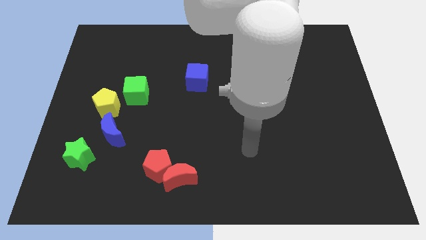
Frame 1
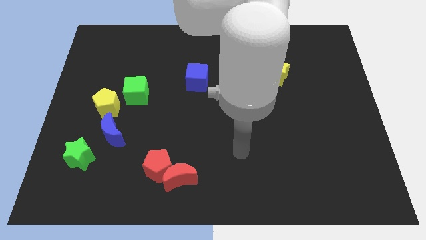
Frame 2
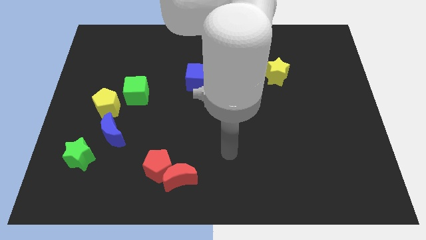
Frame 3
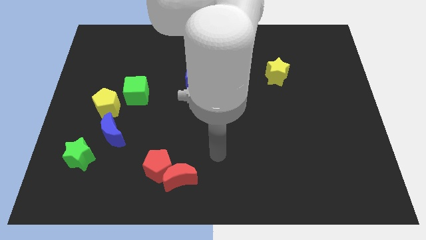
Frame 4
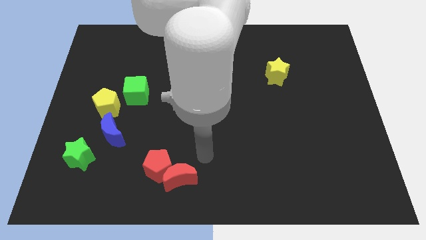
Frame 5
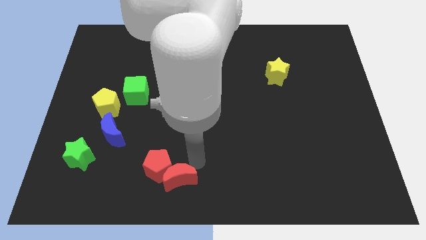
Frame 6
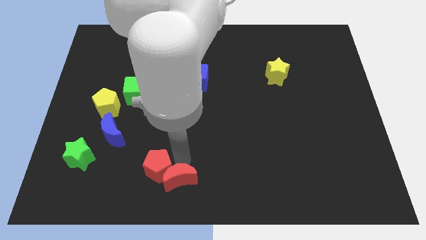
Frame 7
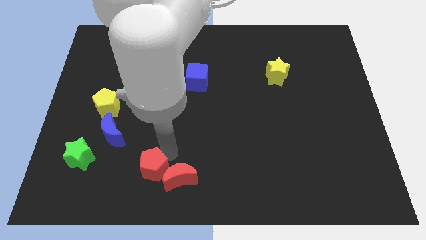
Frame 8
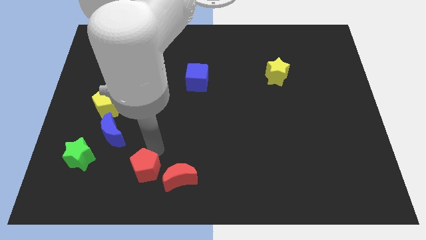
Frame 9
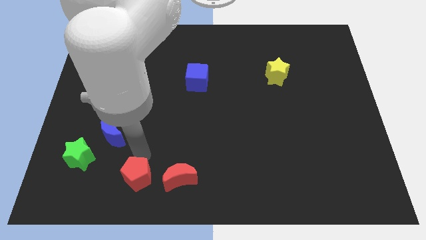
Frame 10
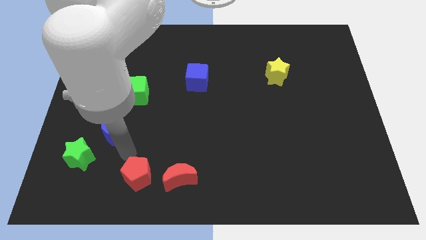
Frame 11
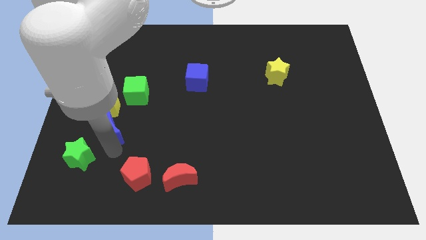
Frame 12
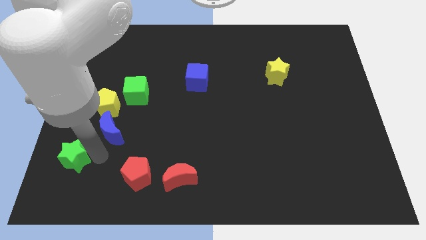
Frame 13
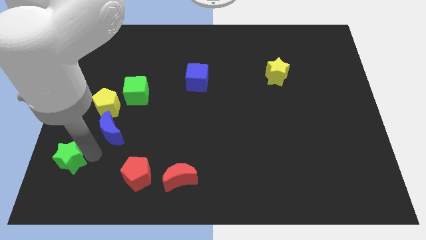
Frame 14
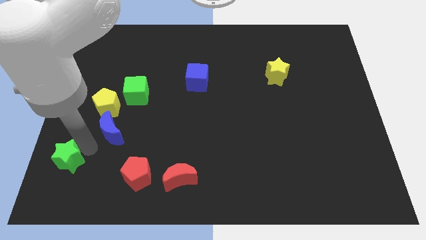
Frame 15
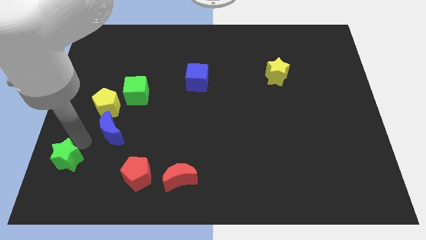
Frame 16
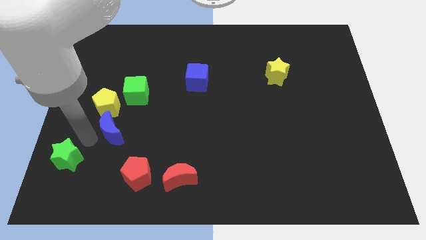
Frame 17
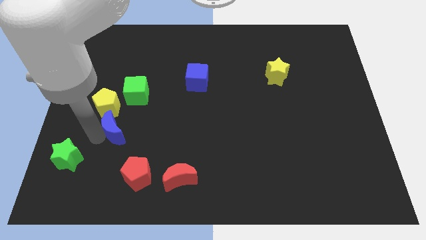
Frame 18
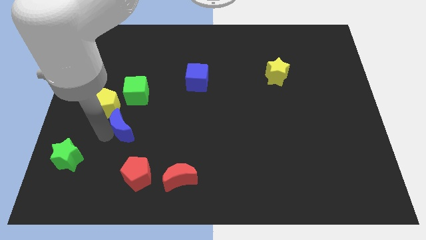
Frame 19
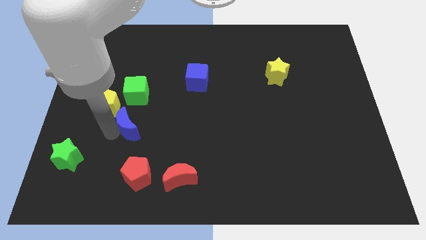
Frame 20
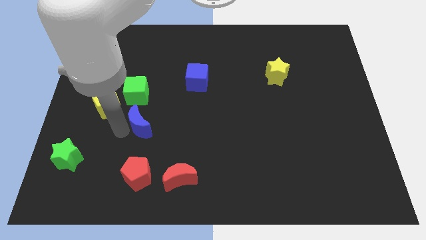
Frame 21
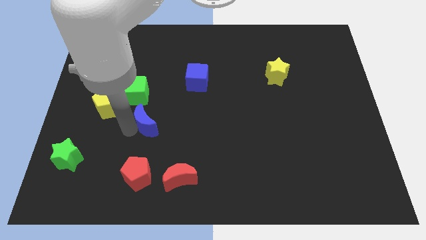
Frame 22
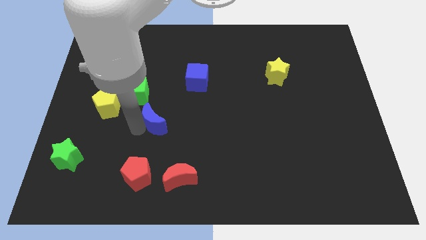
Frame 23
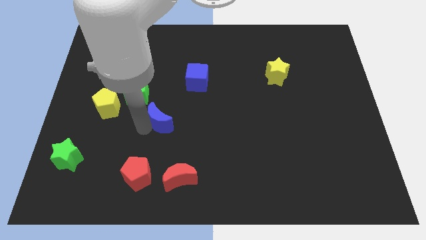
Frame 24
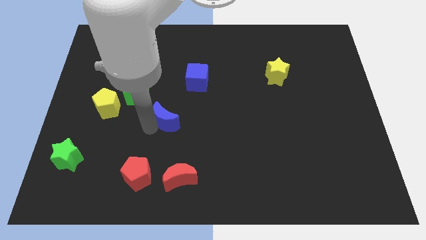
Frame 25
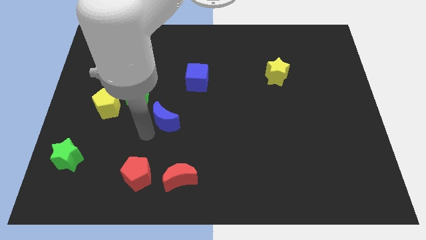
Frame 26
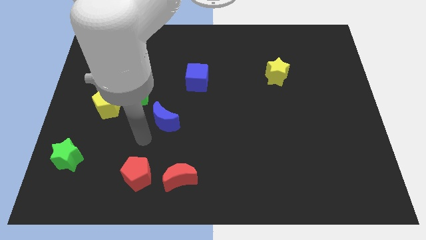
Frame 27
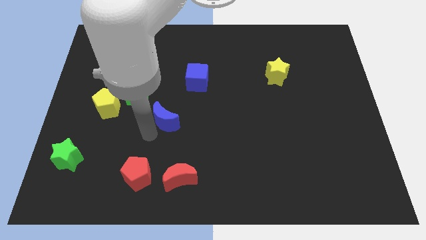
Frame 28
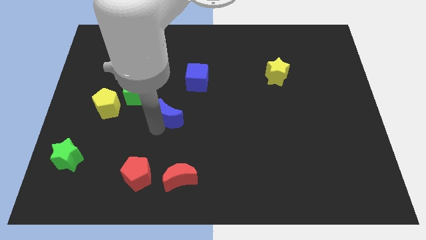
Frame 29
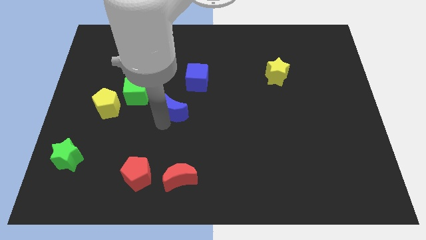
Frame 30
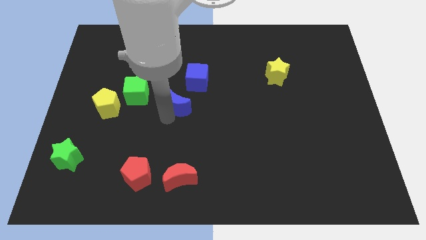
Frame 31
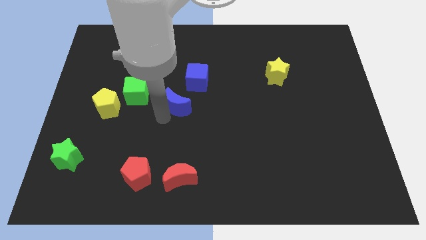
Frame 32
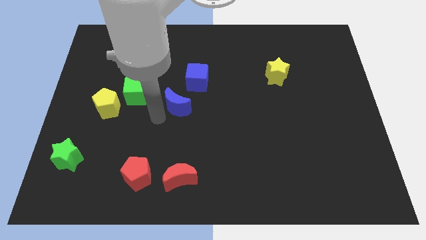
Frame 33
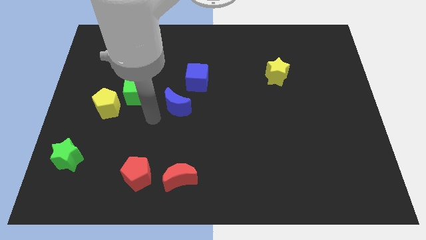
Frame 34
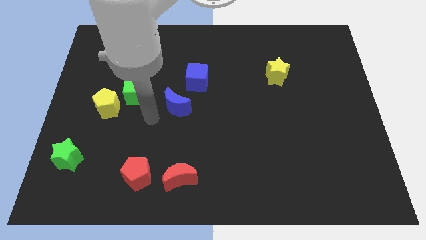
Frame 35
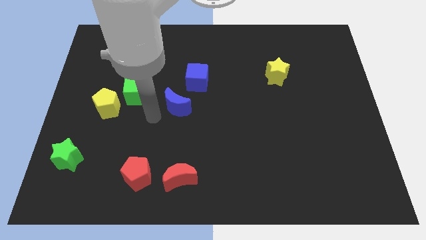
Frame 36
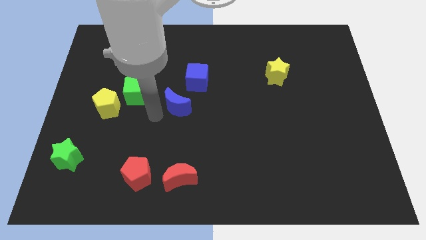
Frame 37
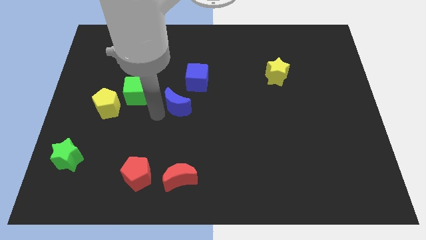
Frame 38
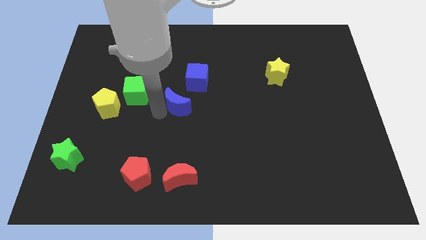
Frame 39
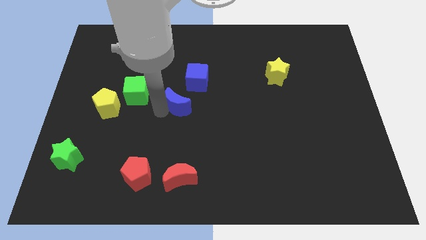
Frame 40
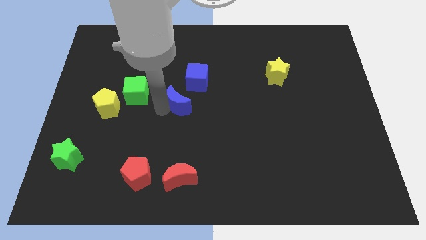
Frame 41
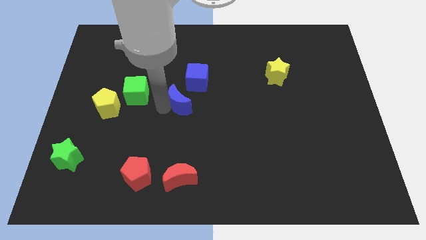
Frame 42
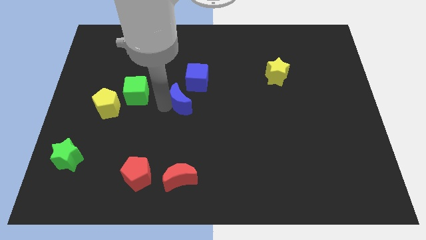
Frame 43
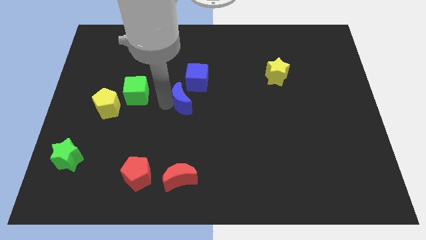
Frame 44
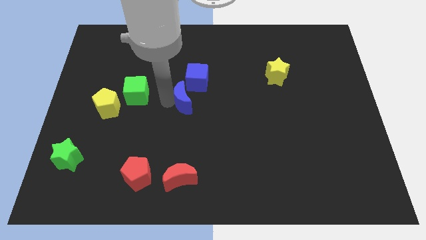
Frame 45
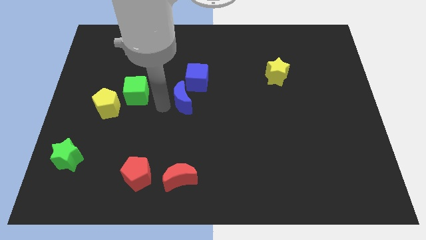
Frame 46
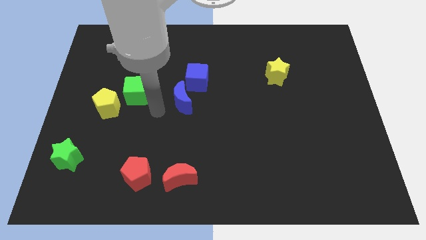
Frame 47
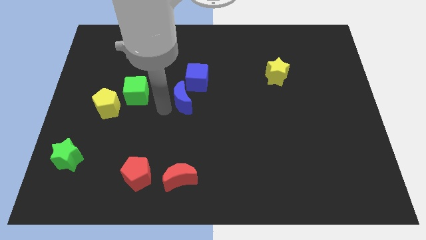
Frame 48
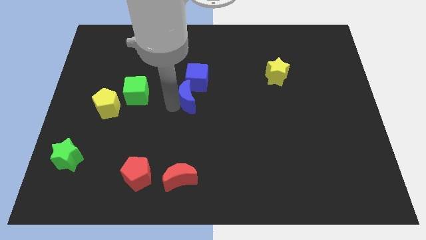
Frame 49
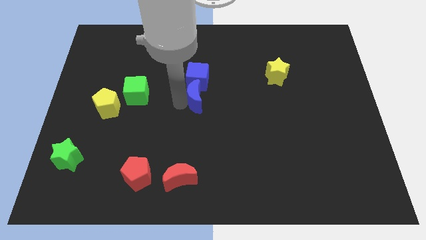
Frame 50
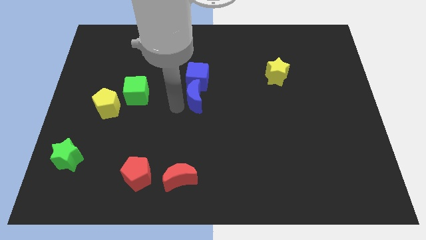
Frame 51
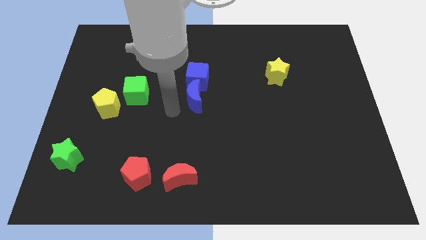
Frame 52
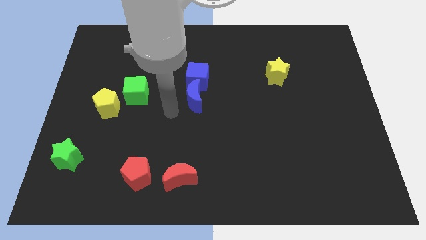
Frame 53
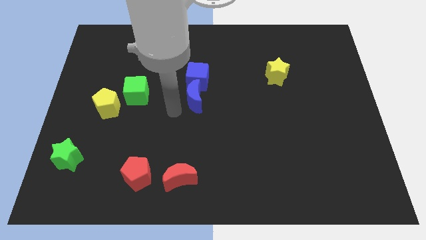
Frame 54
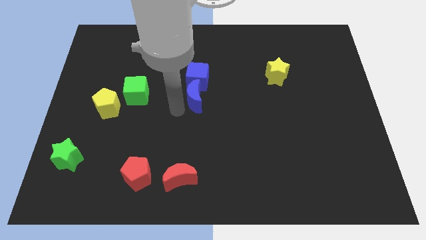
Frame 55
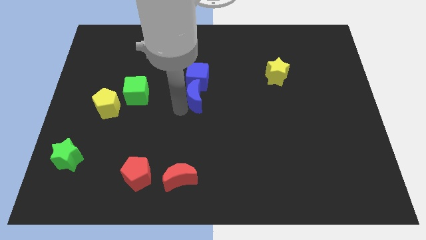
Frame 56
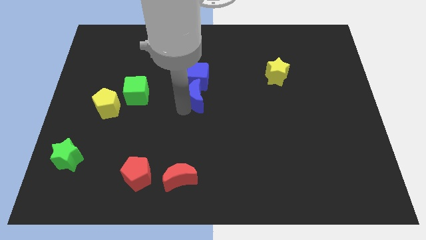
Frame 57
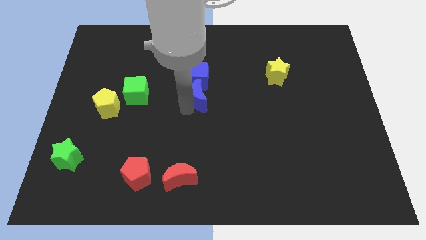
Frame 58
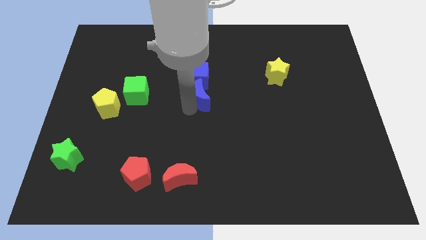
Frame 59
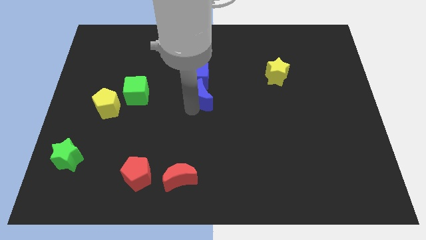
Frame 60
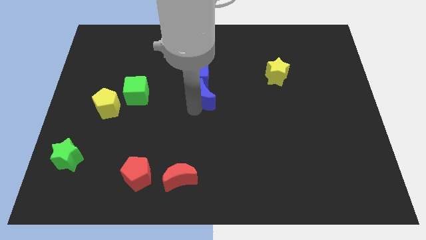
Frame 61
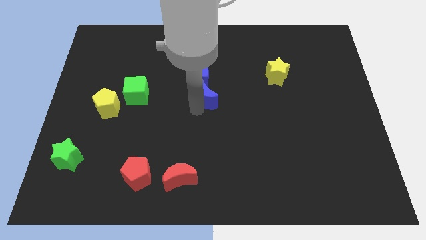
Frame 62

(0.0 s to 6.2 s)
slide the blue moon up and then to the right

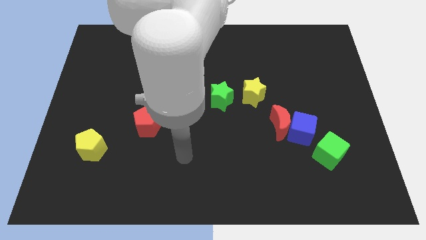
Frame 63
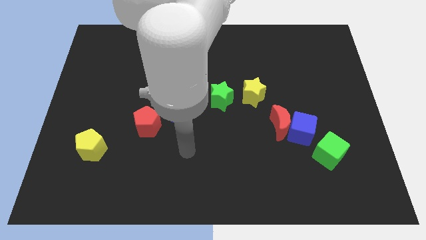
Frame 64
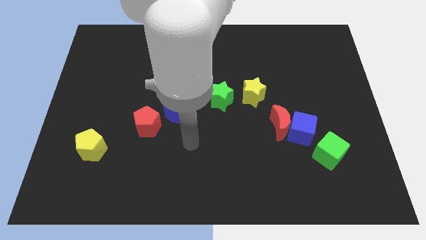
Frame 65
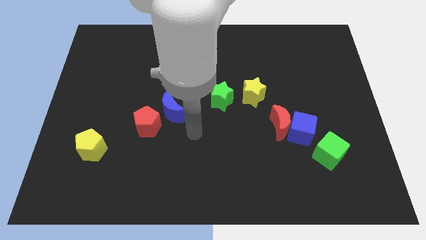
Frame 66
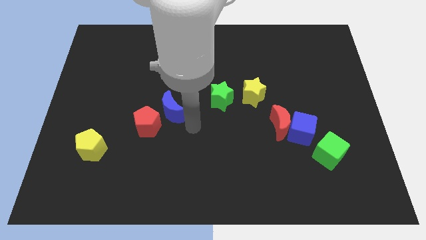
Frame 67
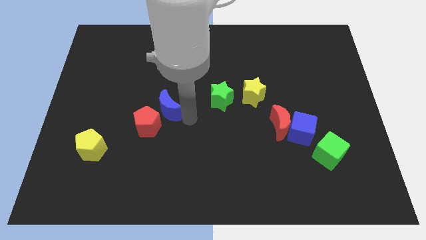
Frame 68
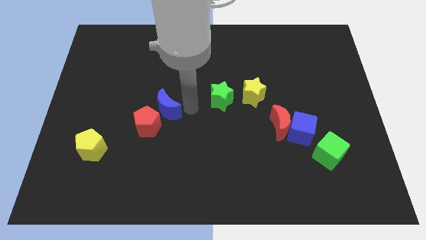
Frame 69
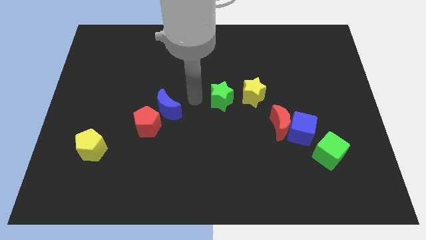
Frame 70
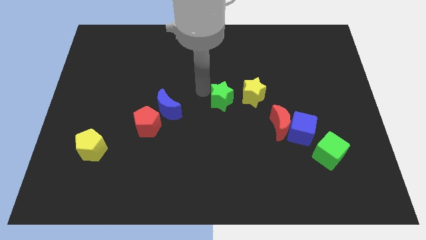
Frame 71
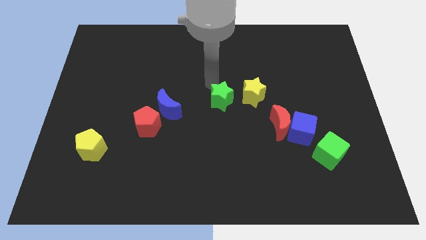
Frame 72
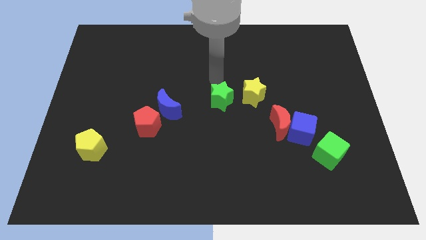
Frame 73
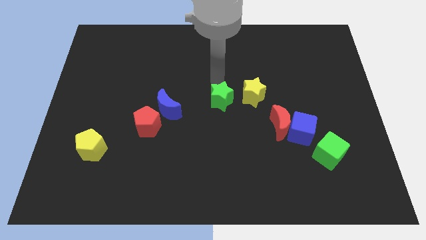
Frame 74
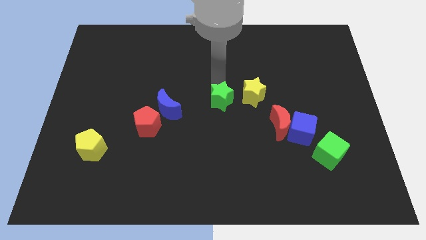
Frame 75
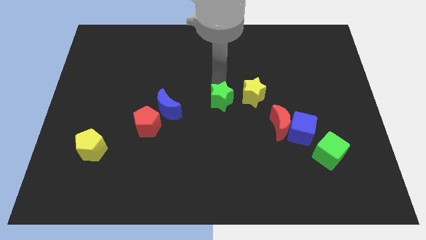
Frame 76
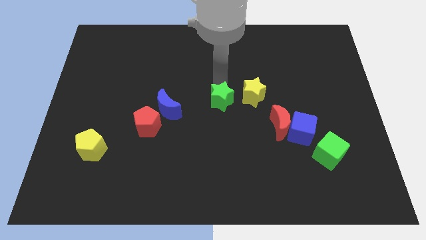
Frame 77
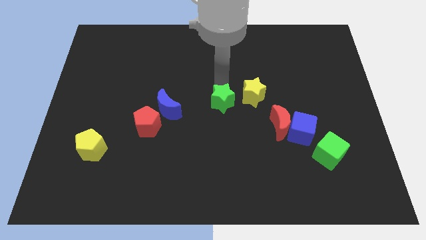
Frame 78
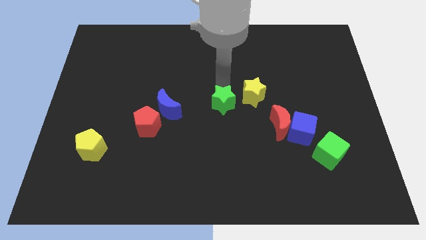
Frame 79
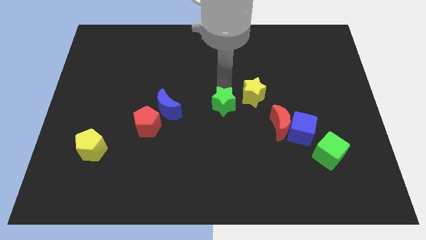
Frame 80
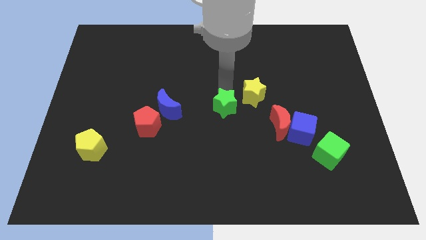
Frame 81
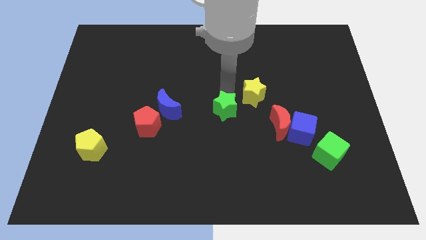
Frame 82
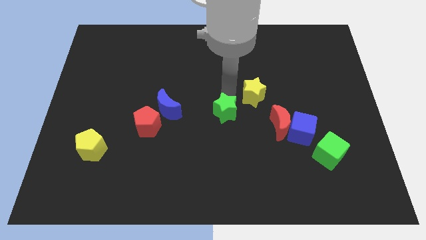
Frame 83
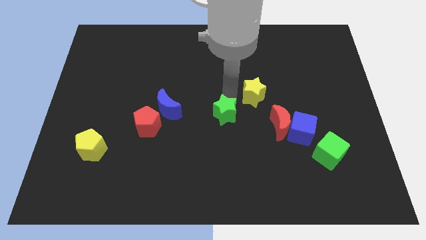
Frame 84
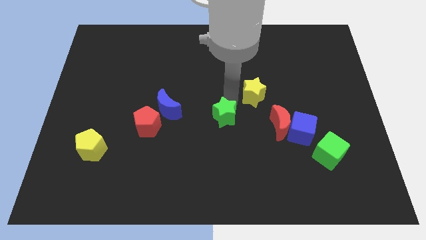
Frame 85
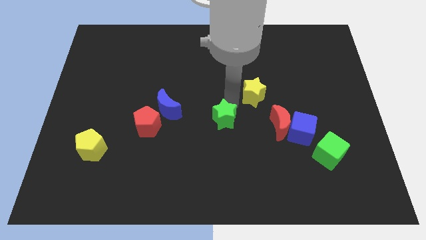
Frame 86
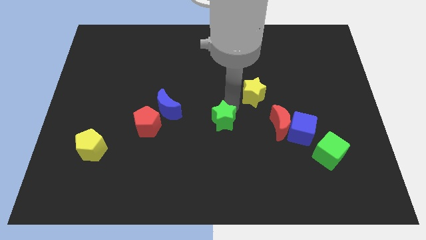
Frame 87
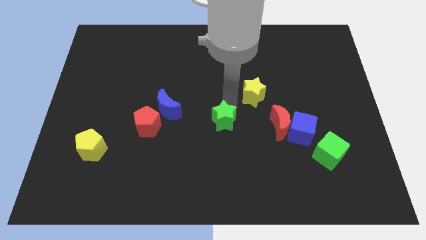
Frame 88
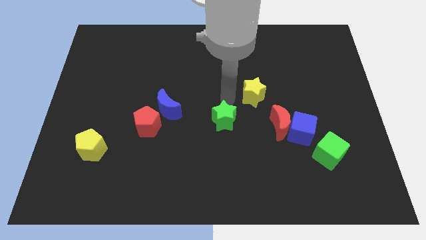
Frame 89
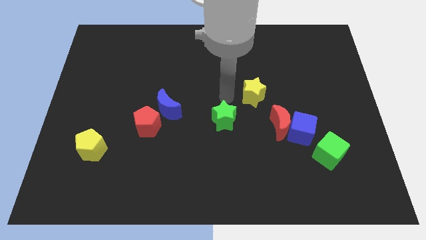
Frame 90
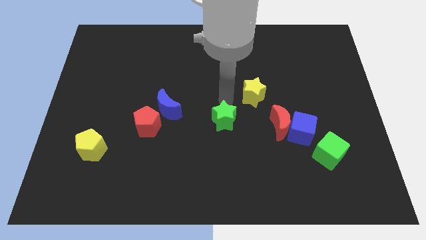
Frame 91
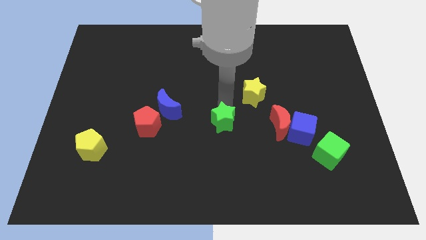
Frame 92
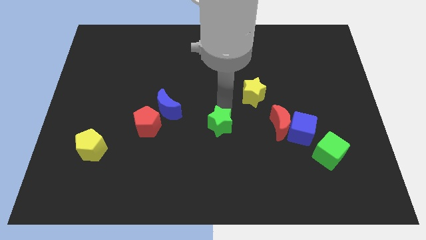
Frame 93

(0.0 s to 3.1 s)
move the green star downwards a little
